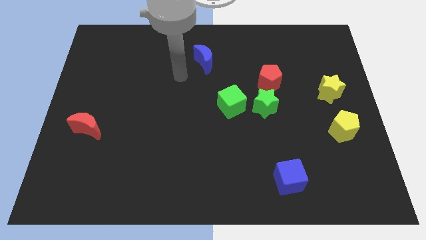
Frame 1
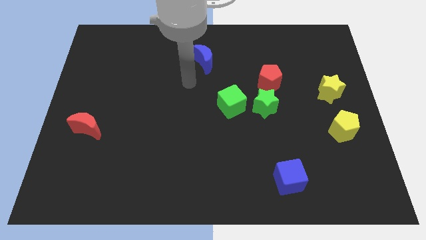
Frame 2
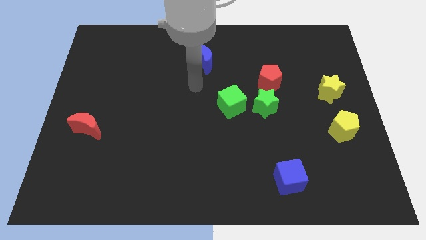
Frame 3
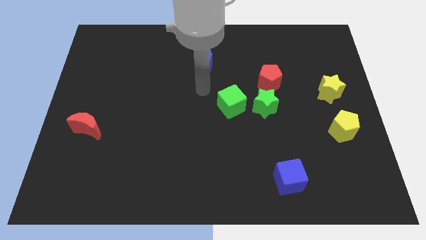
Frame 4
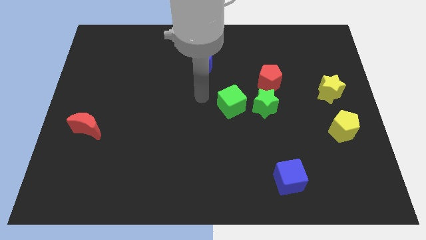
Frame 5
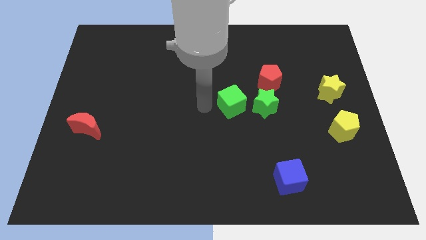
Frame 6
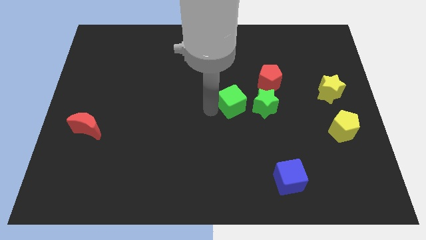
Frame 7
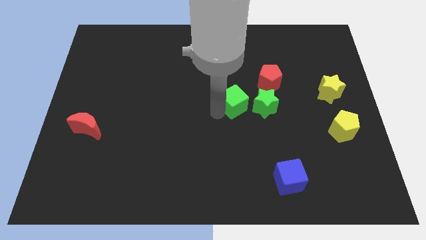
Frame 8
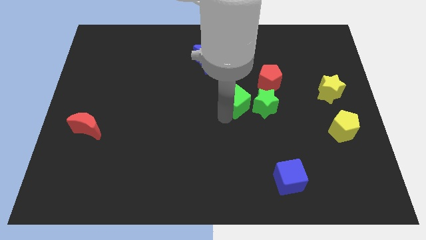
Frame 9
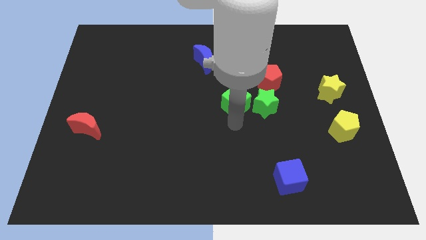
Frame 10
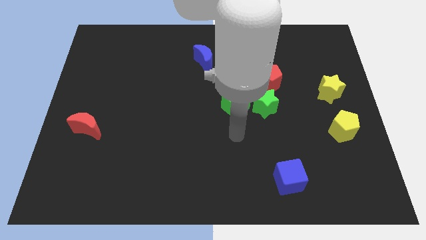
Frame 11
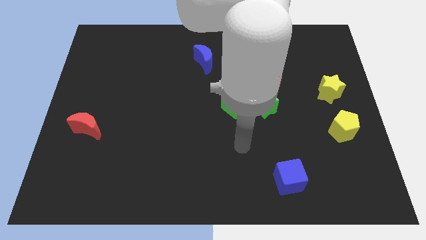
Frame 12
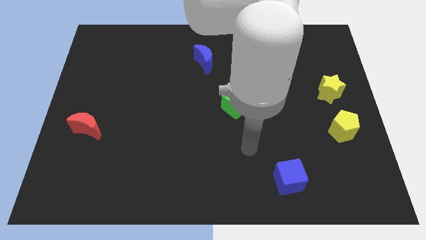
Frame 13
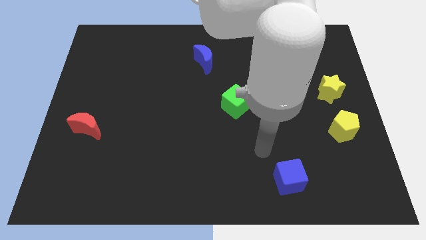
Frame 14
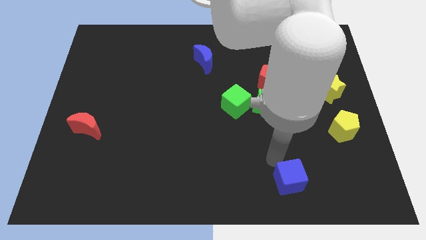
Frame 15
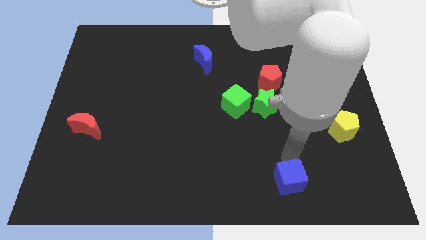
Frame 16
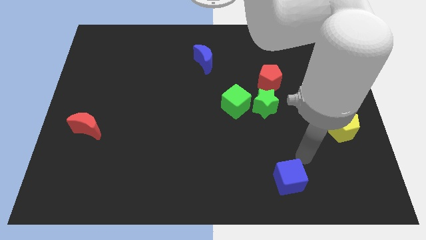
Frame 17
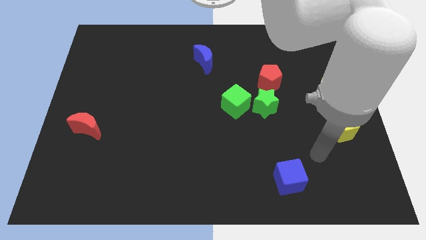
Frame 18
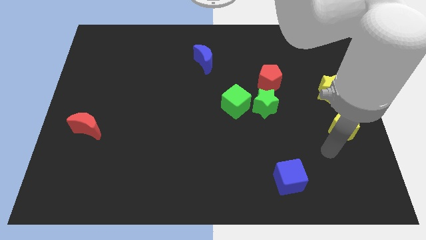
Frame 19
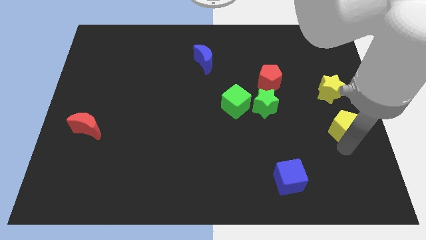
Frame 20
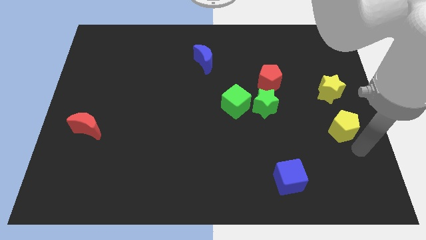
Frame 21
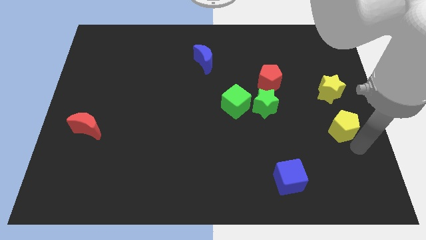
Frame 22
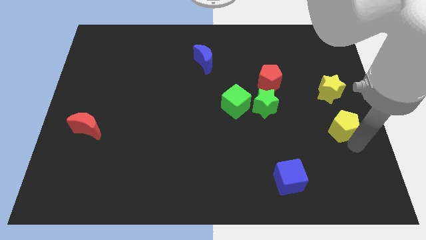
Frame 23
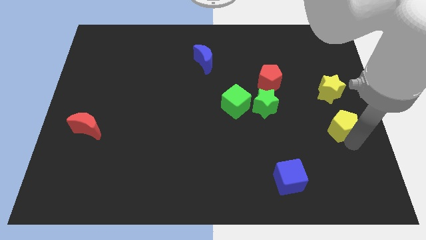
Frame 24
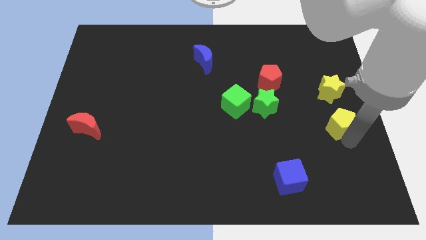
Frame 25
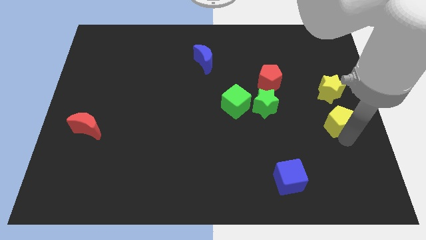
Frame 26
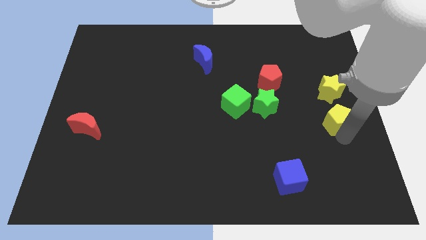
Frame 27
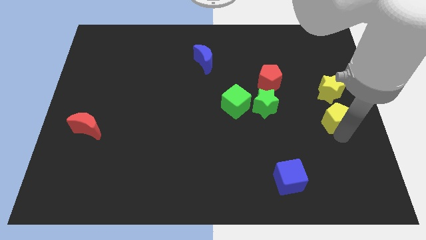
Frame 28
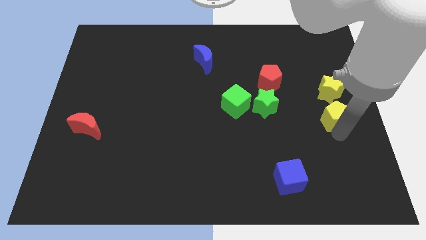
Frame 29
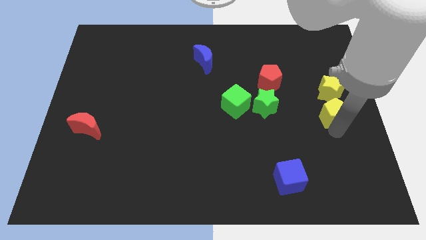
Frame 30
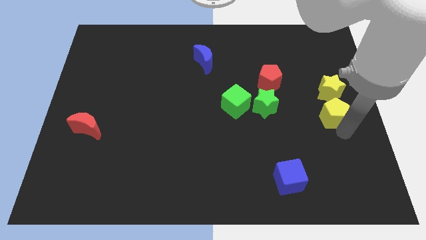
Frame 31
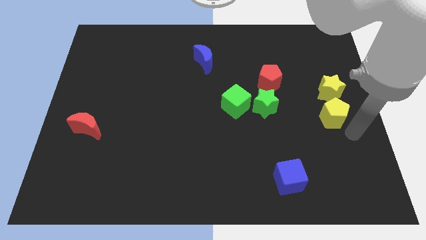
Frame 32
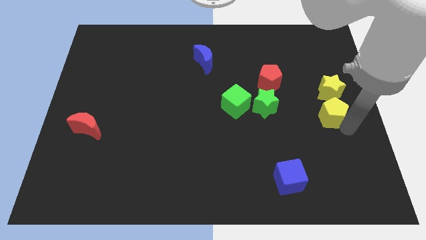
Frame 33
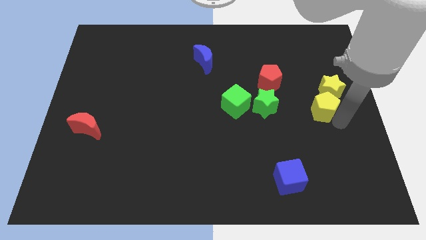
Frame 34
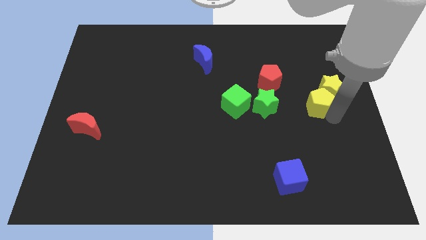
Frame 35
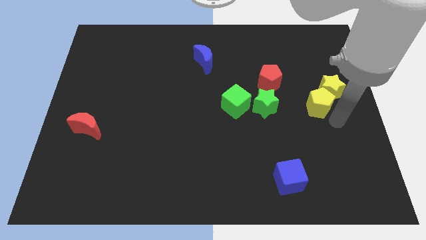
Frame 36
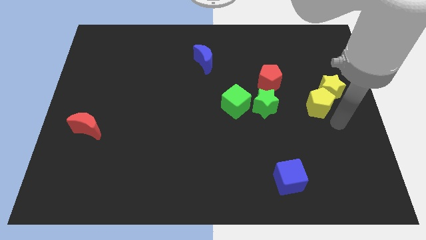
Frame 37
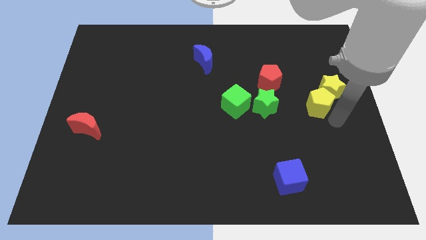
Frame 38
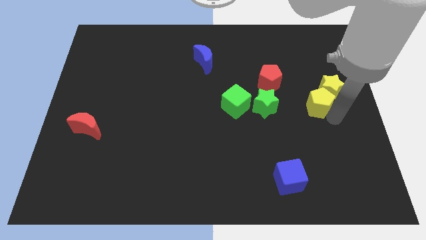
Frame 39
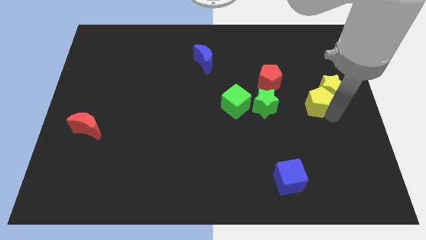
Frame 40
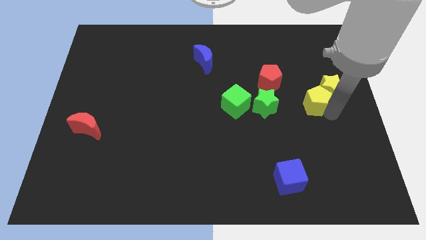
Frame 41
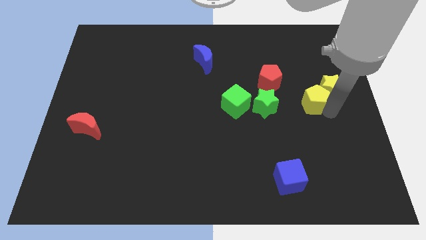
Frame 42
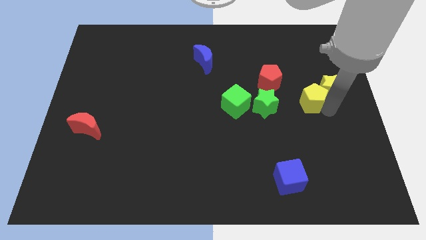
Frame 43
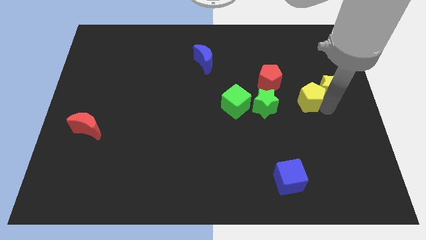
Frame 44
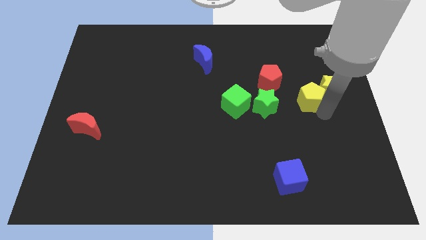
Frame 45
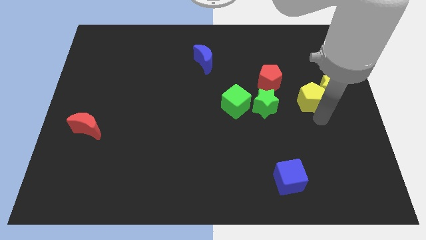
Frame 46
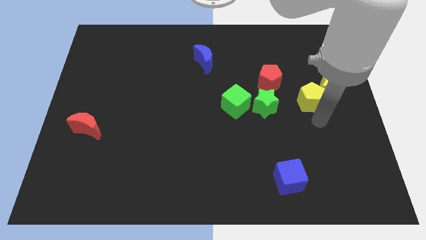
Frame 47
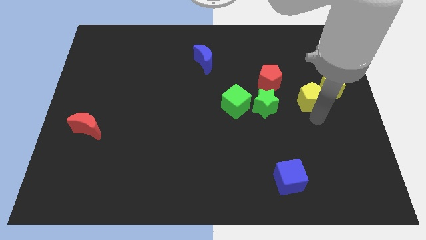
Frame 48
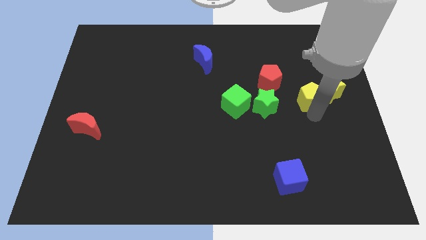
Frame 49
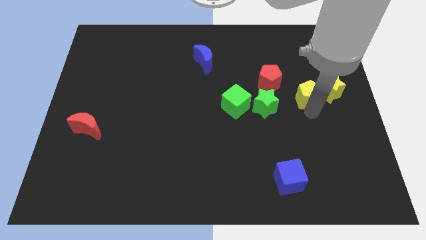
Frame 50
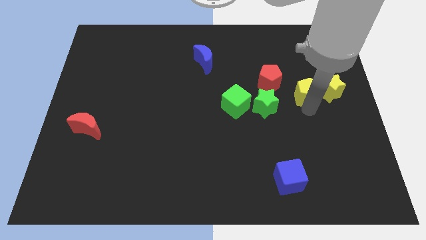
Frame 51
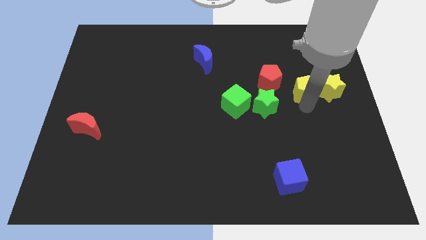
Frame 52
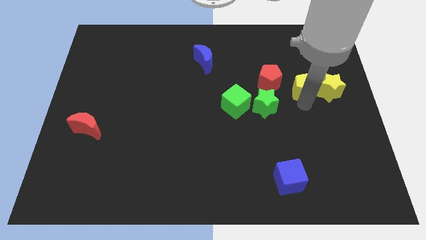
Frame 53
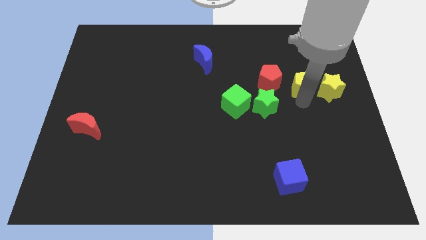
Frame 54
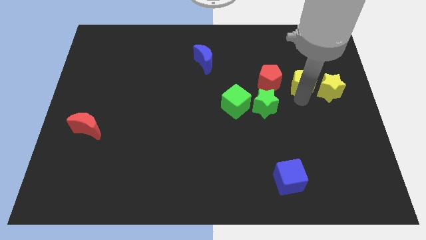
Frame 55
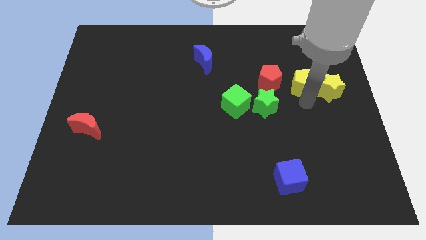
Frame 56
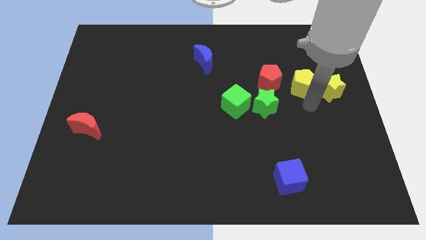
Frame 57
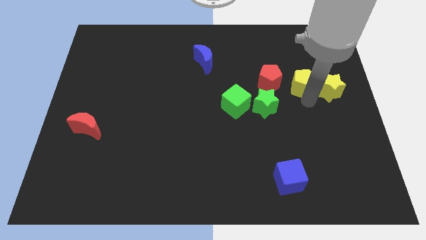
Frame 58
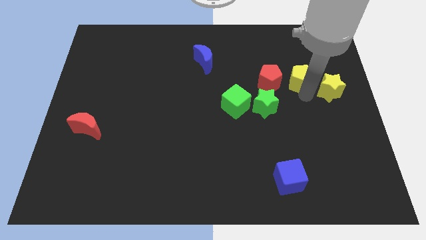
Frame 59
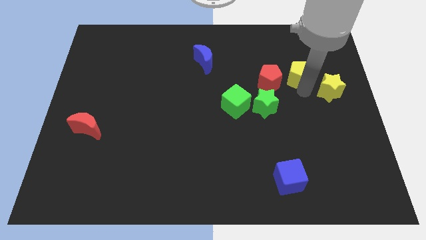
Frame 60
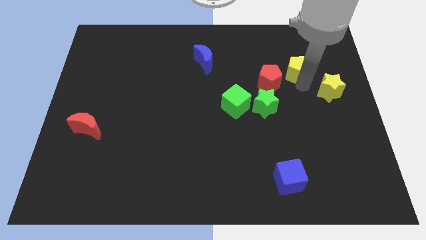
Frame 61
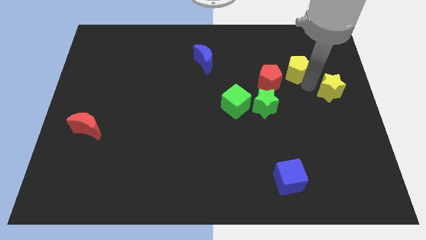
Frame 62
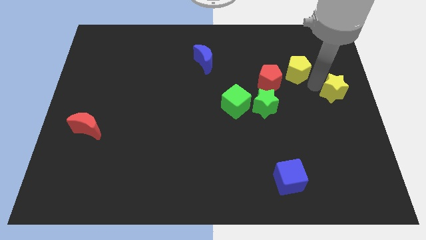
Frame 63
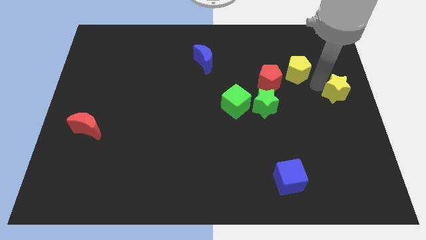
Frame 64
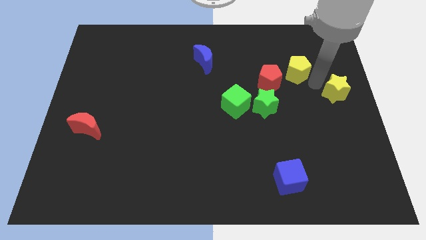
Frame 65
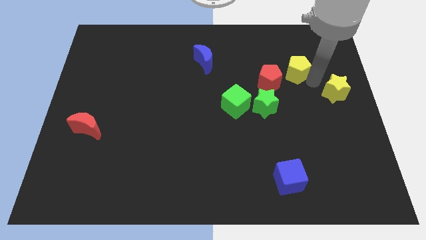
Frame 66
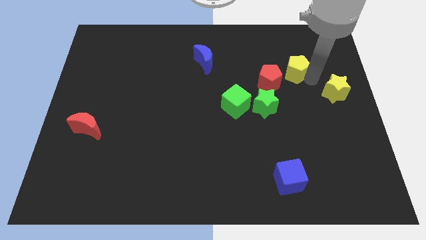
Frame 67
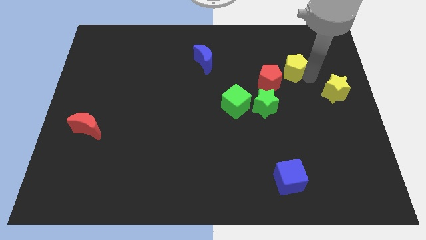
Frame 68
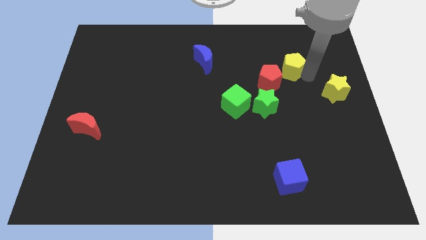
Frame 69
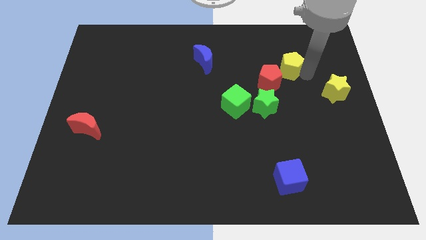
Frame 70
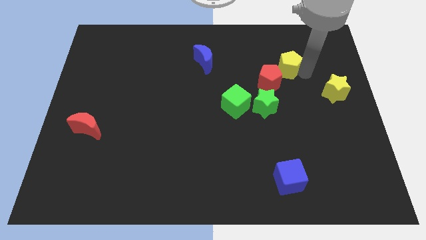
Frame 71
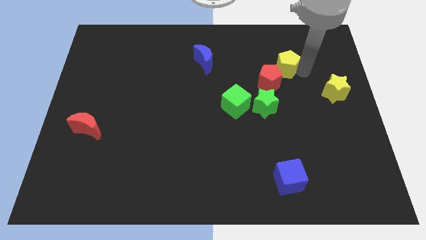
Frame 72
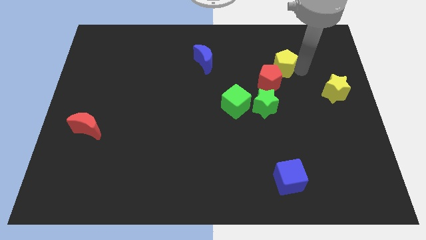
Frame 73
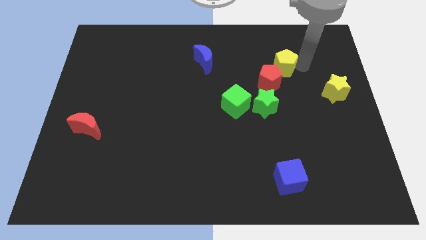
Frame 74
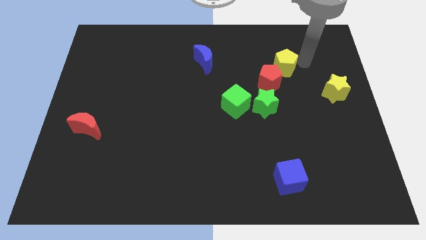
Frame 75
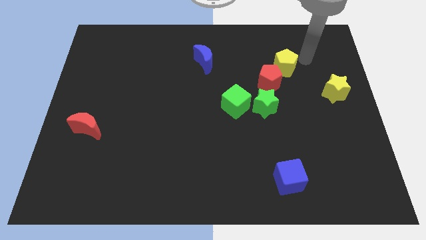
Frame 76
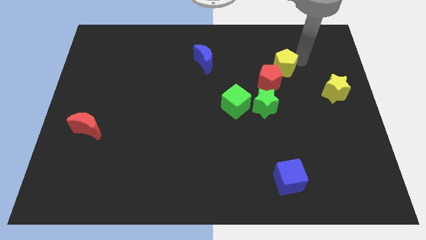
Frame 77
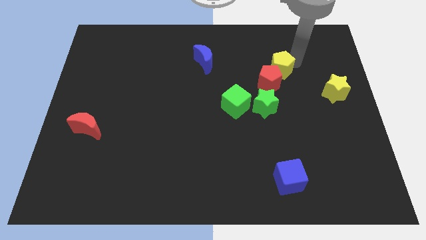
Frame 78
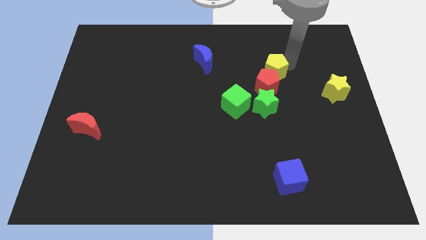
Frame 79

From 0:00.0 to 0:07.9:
move the yellow pentagon to the top of the green star
